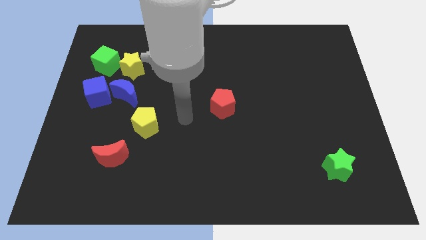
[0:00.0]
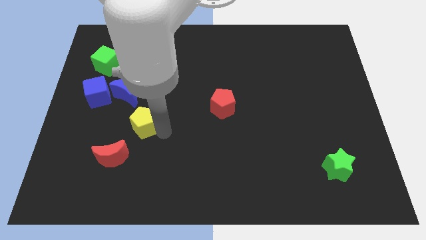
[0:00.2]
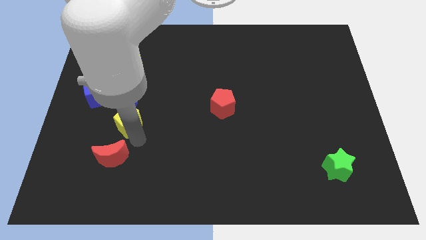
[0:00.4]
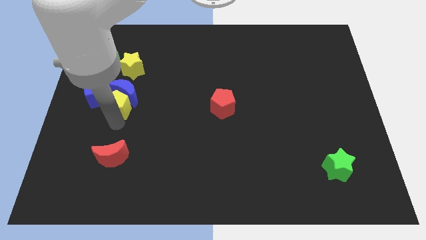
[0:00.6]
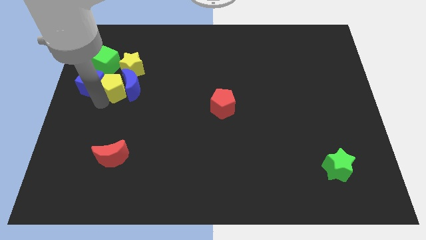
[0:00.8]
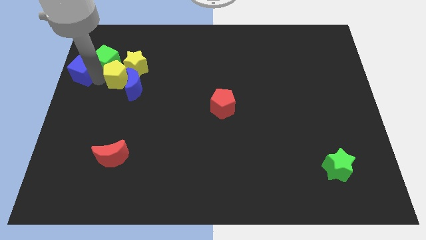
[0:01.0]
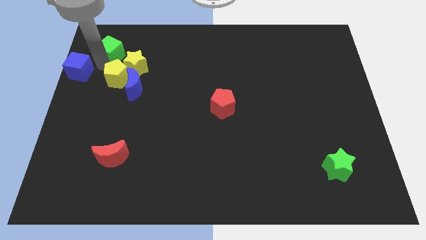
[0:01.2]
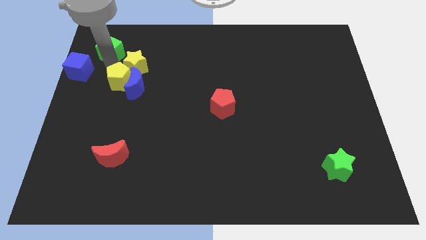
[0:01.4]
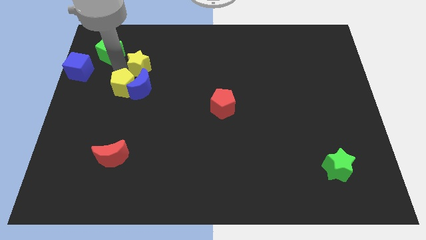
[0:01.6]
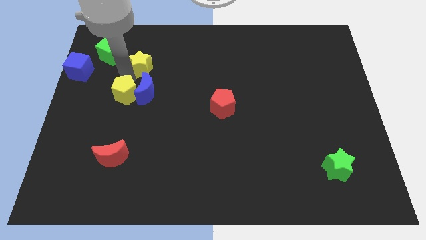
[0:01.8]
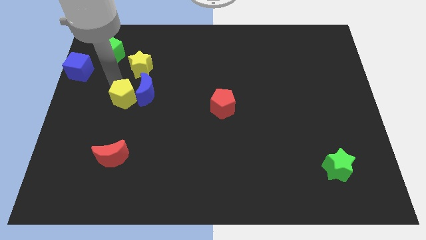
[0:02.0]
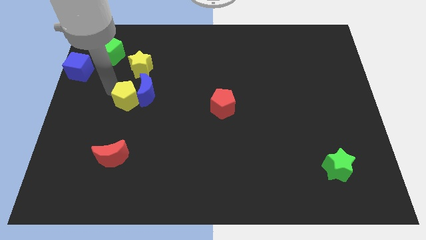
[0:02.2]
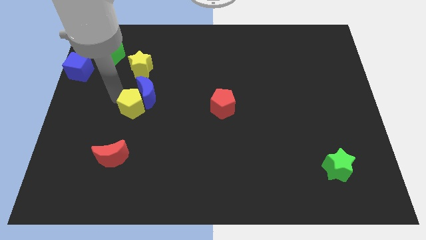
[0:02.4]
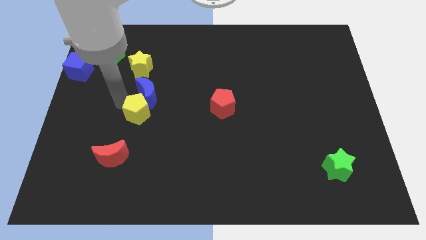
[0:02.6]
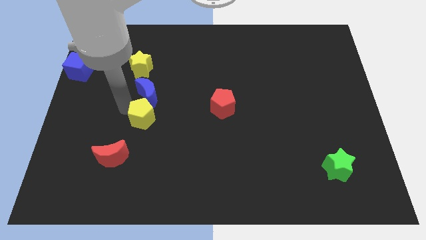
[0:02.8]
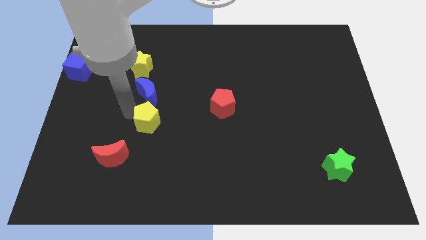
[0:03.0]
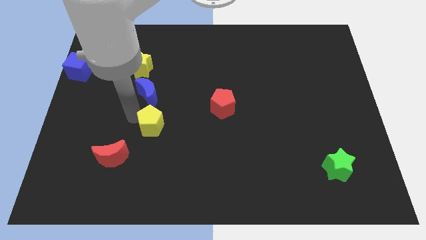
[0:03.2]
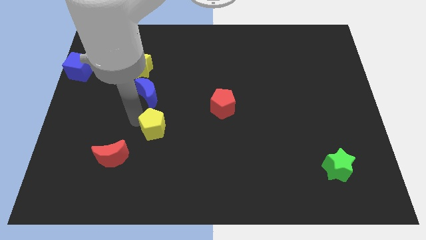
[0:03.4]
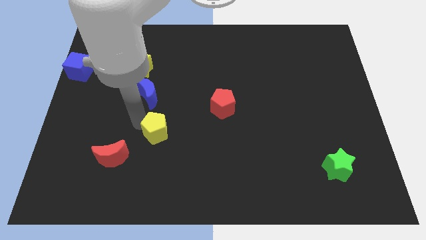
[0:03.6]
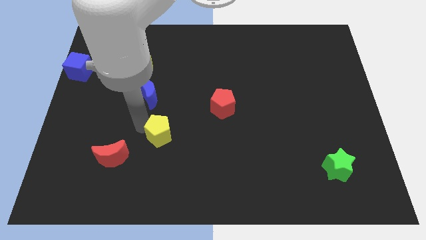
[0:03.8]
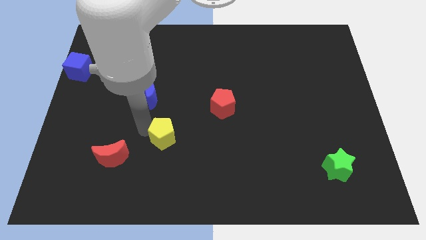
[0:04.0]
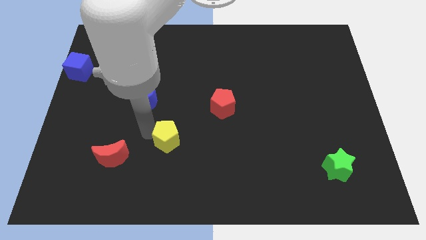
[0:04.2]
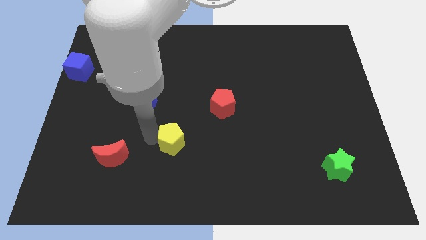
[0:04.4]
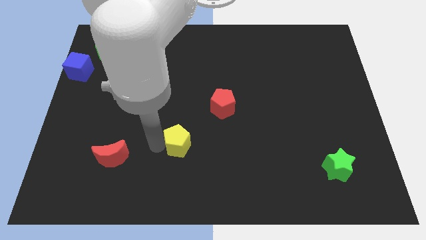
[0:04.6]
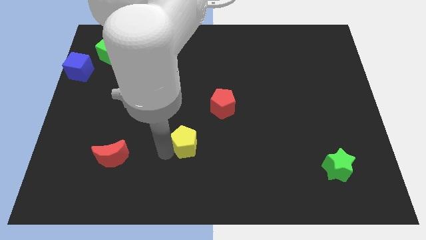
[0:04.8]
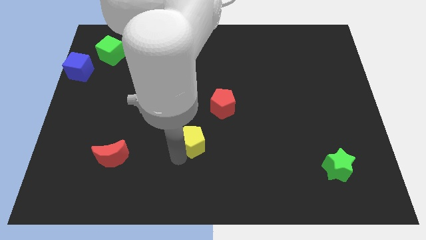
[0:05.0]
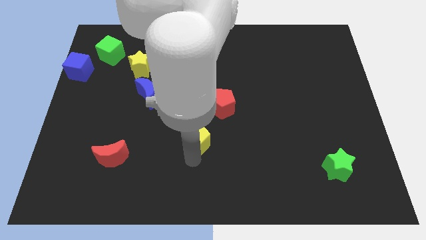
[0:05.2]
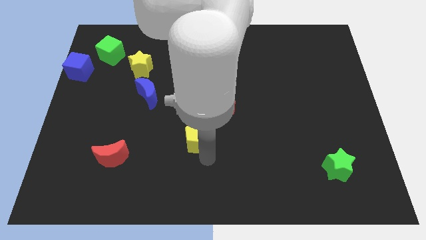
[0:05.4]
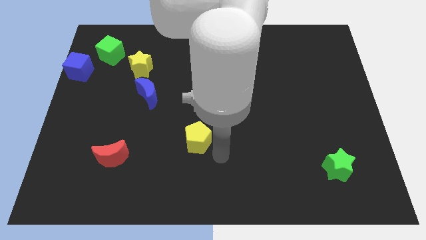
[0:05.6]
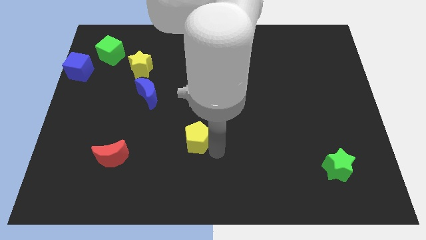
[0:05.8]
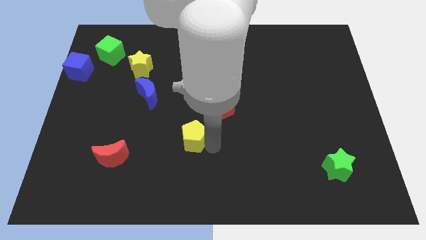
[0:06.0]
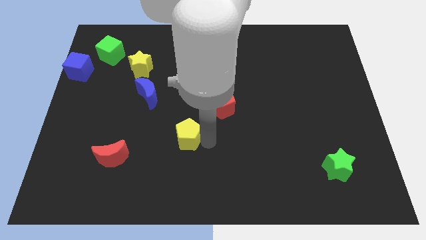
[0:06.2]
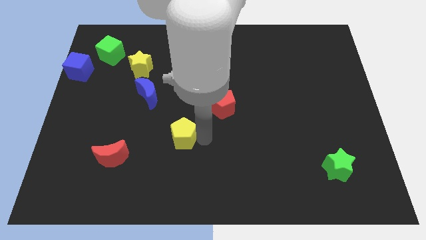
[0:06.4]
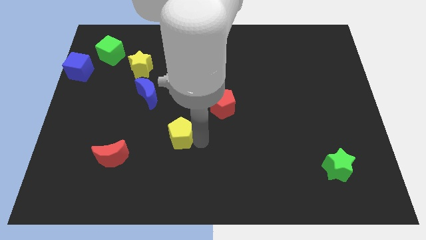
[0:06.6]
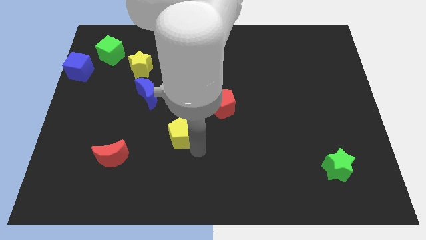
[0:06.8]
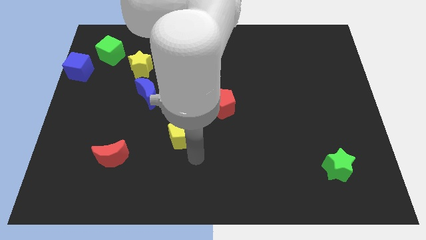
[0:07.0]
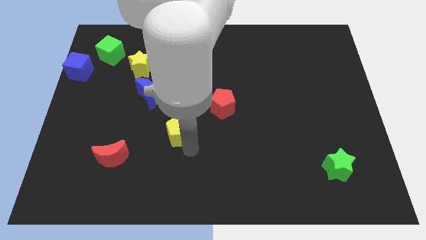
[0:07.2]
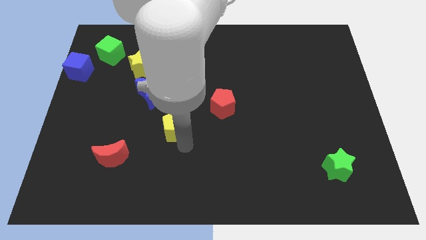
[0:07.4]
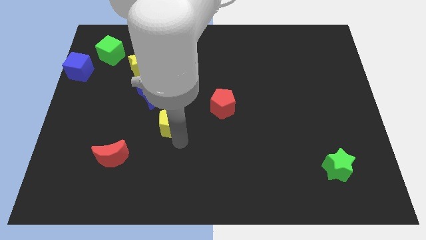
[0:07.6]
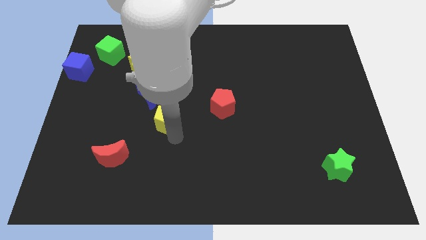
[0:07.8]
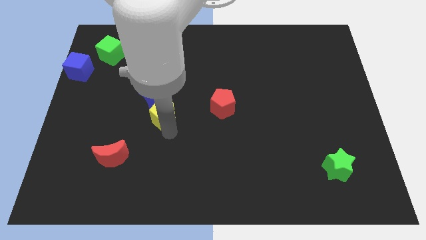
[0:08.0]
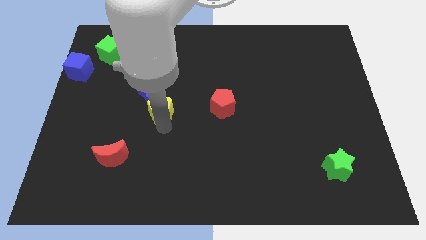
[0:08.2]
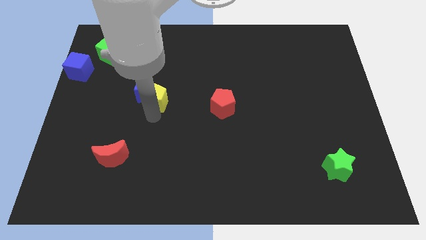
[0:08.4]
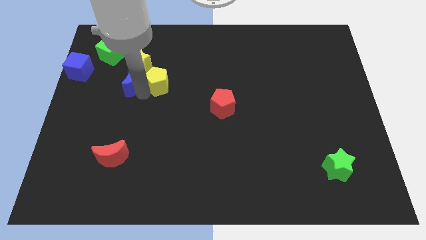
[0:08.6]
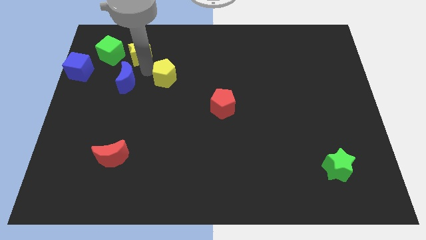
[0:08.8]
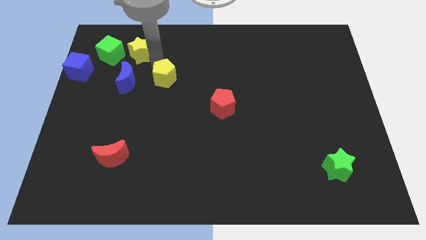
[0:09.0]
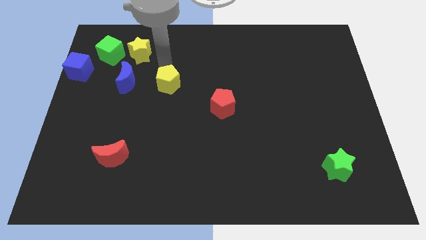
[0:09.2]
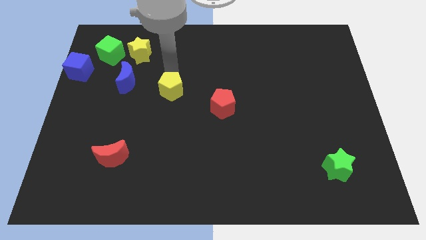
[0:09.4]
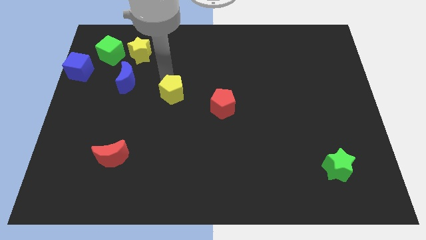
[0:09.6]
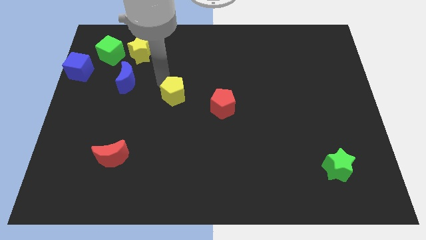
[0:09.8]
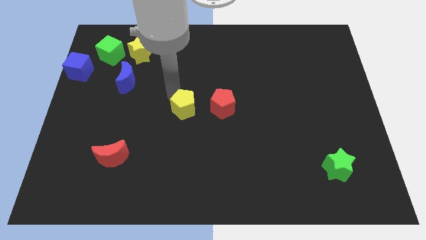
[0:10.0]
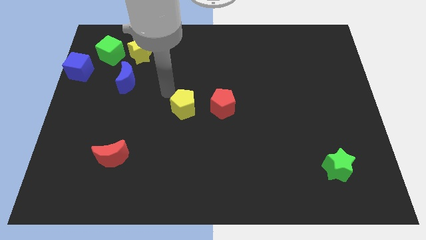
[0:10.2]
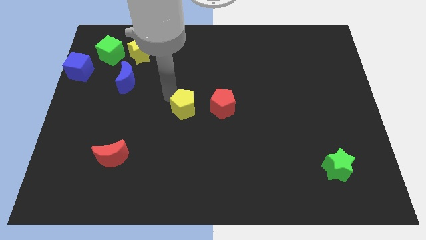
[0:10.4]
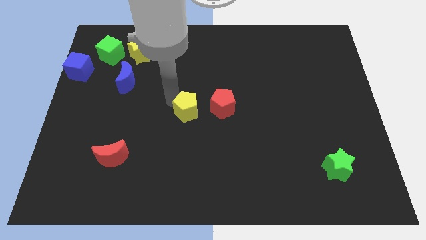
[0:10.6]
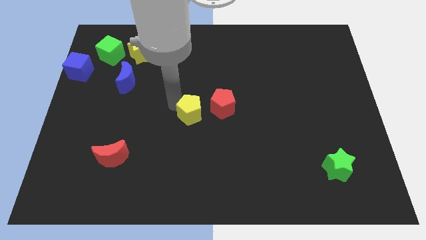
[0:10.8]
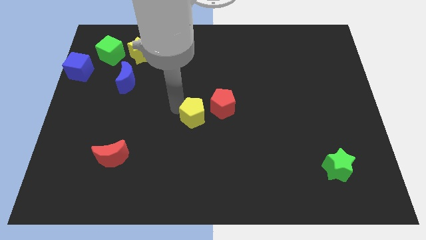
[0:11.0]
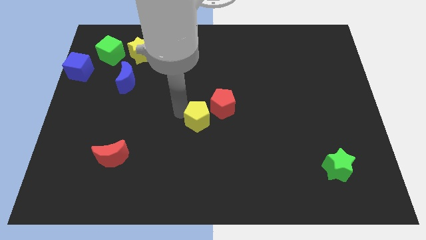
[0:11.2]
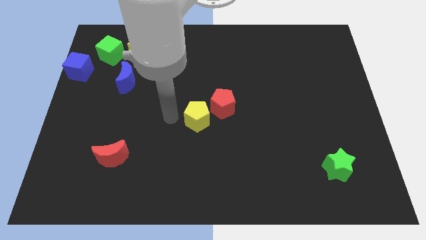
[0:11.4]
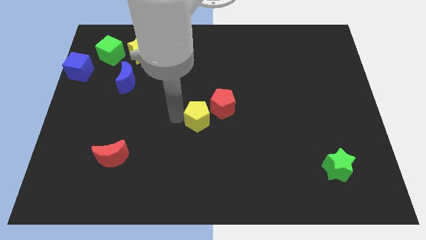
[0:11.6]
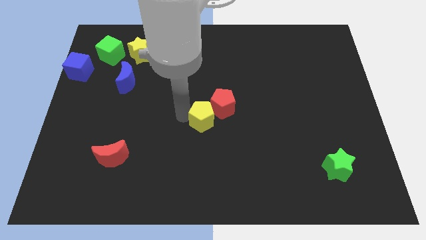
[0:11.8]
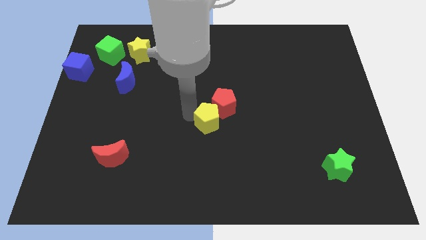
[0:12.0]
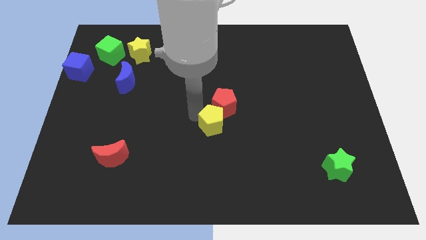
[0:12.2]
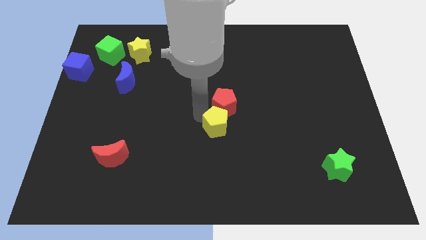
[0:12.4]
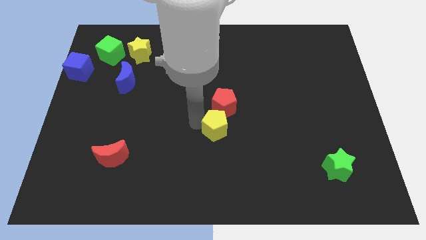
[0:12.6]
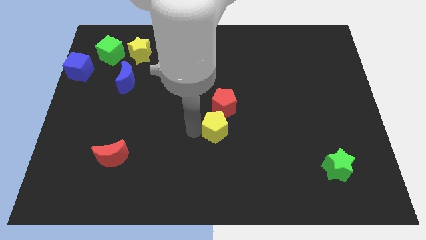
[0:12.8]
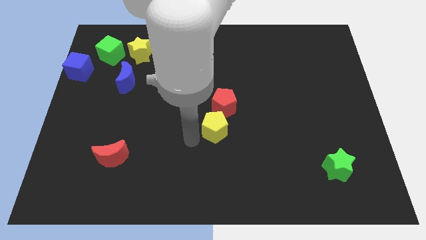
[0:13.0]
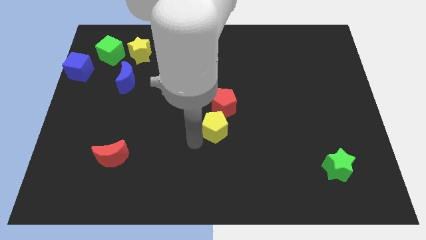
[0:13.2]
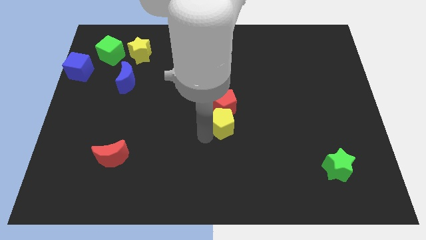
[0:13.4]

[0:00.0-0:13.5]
put the yellow pentagon diagonally down and to the right of the red pentagon

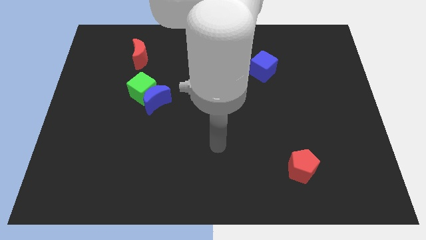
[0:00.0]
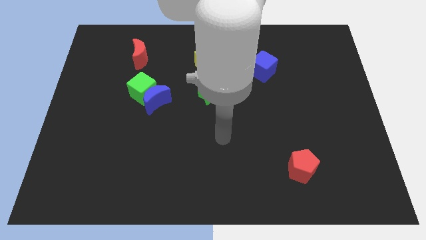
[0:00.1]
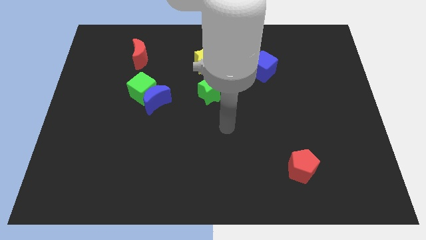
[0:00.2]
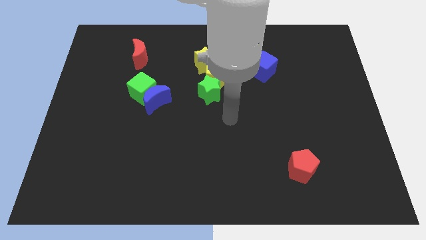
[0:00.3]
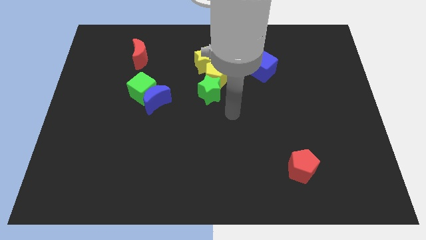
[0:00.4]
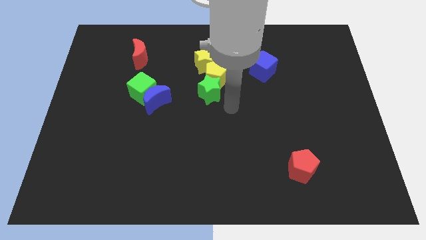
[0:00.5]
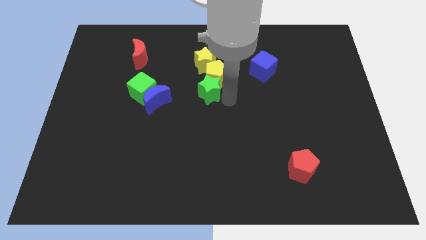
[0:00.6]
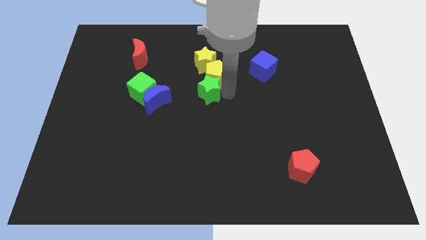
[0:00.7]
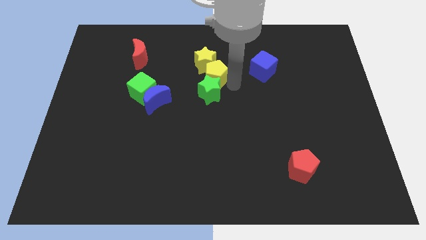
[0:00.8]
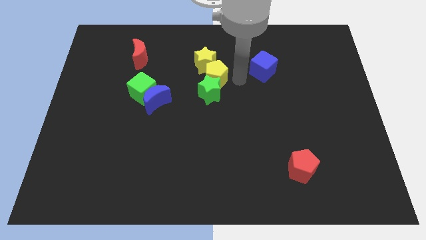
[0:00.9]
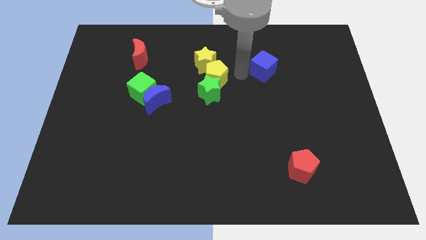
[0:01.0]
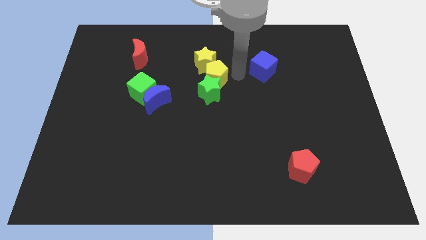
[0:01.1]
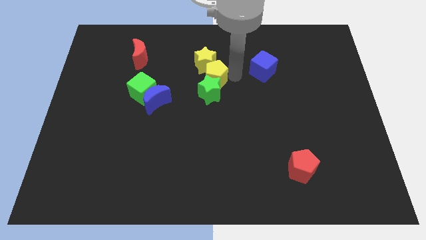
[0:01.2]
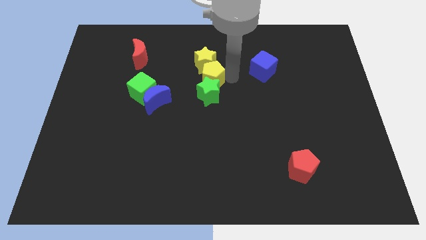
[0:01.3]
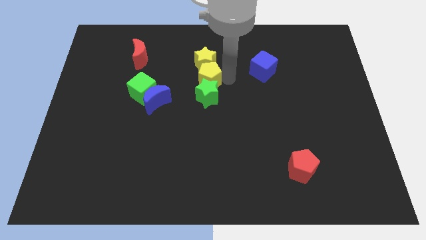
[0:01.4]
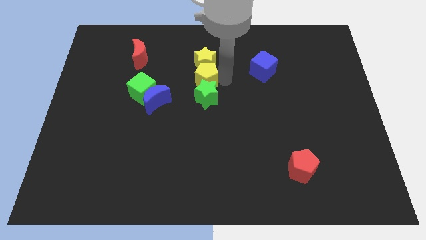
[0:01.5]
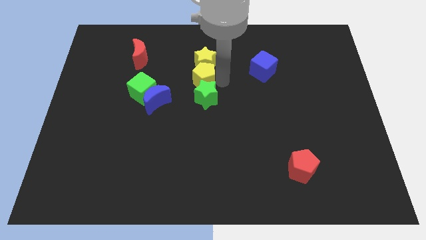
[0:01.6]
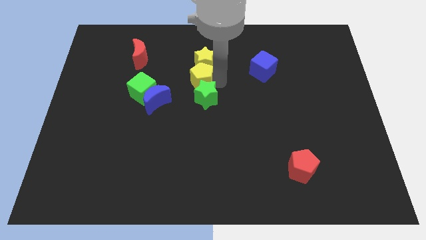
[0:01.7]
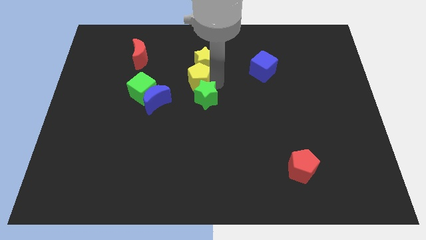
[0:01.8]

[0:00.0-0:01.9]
move the yellow pentagon diagonally up and to the right of the blue moon
